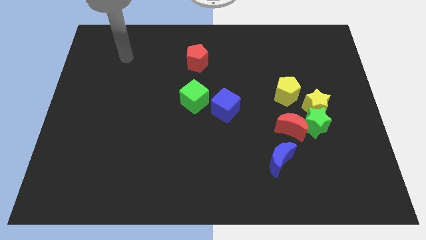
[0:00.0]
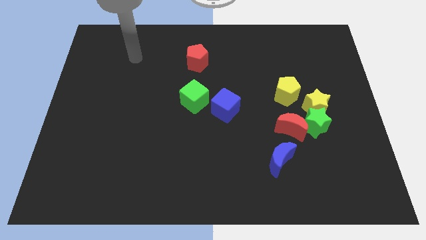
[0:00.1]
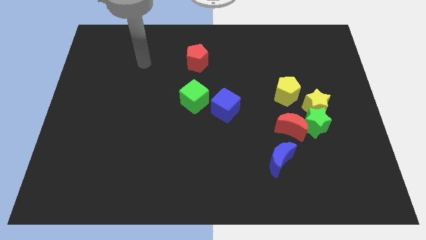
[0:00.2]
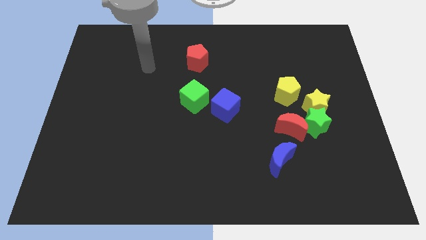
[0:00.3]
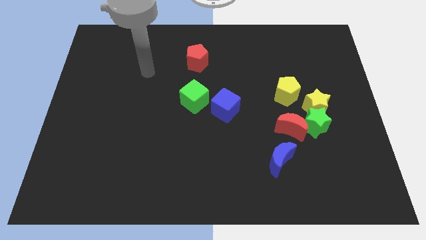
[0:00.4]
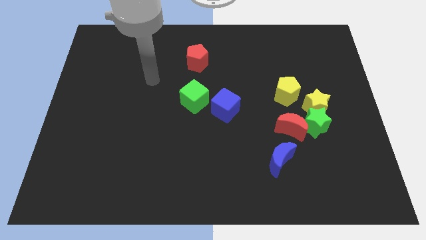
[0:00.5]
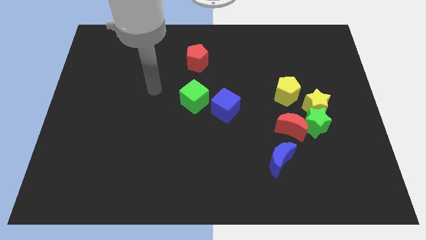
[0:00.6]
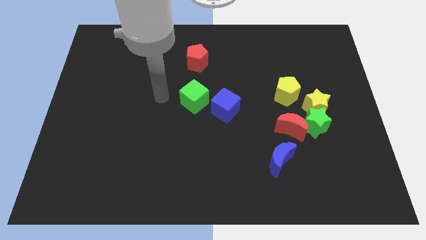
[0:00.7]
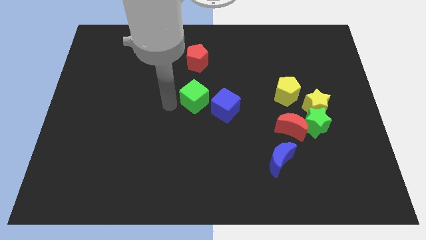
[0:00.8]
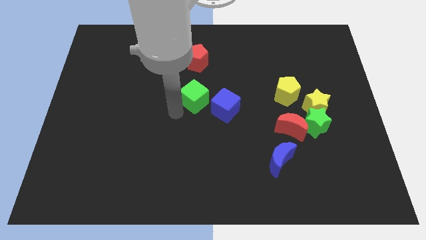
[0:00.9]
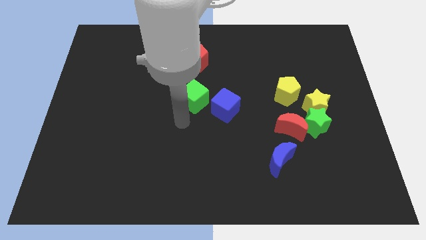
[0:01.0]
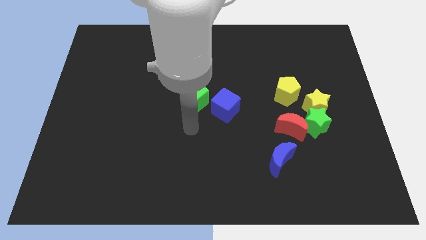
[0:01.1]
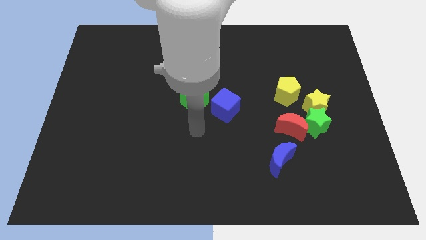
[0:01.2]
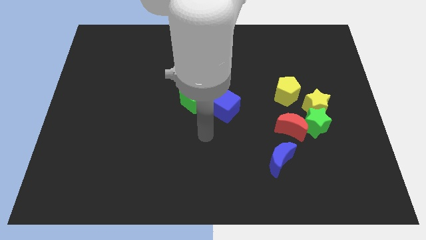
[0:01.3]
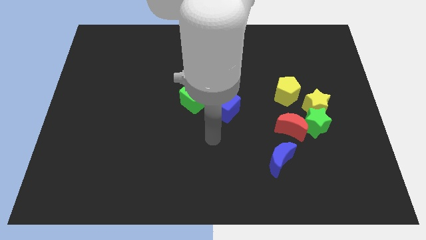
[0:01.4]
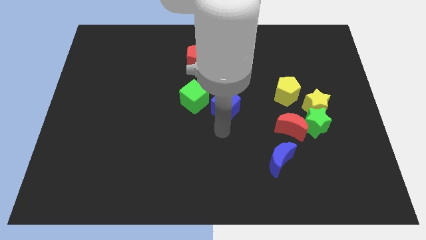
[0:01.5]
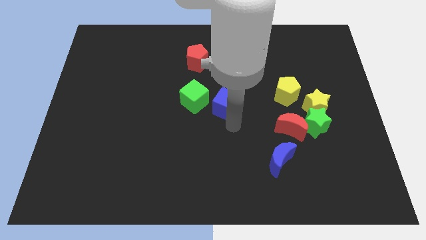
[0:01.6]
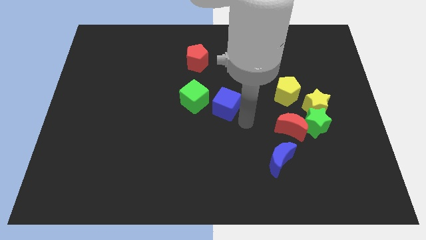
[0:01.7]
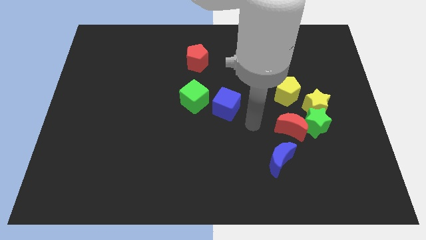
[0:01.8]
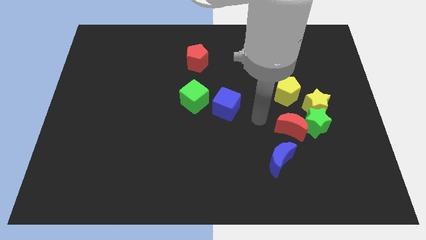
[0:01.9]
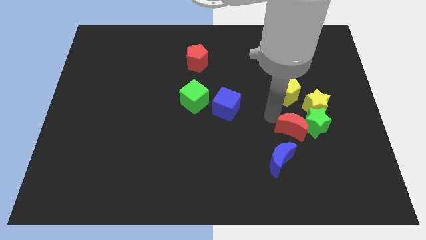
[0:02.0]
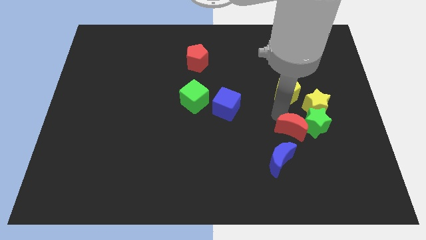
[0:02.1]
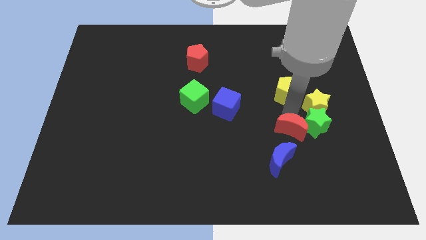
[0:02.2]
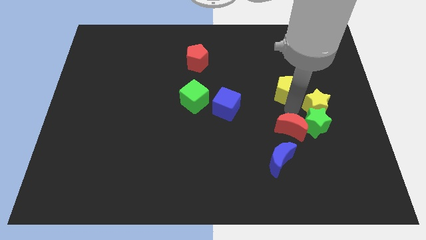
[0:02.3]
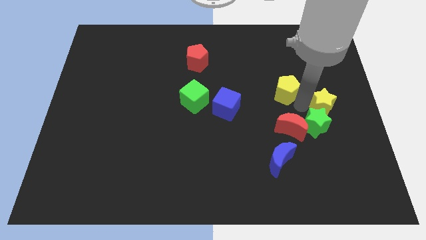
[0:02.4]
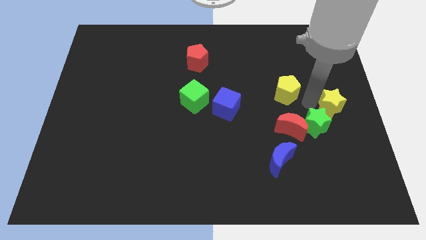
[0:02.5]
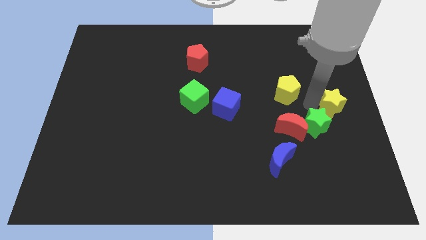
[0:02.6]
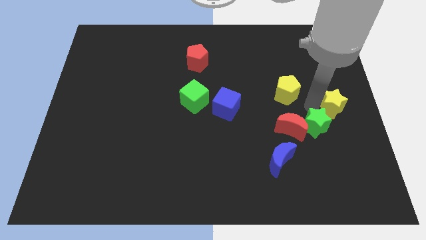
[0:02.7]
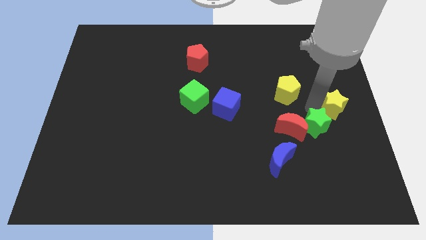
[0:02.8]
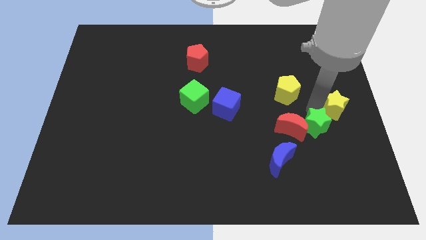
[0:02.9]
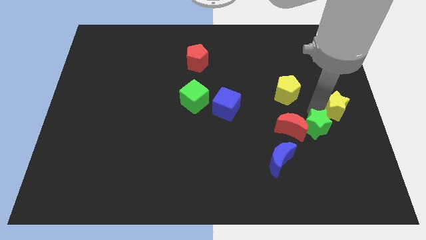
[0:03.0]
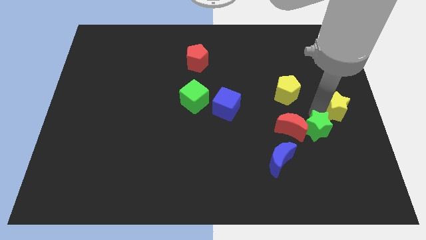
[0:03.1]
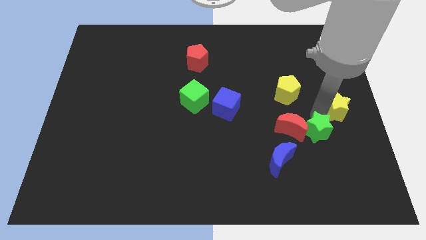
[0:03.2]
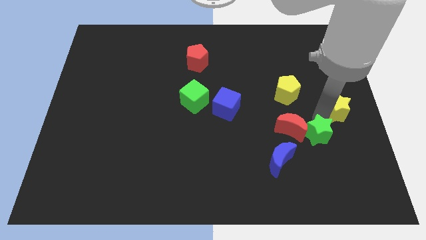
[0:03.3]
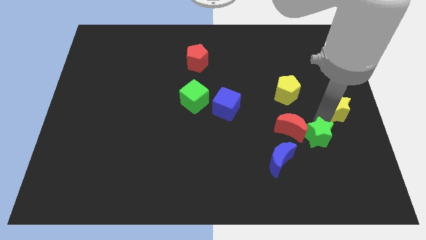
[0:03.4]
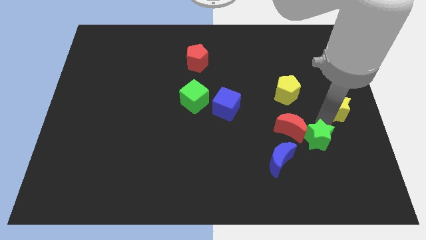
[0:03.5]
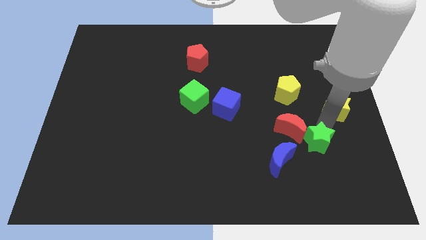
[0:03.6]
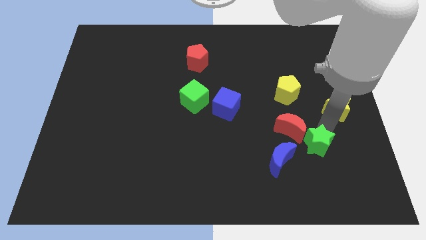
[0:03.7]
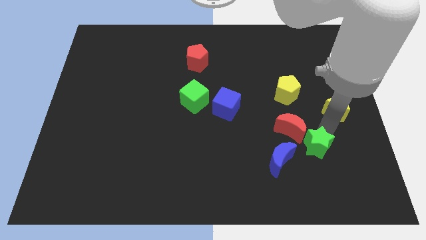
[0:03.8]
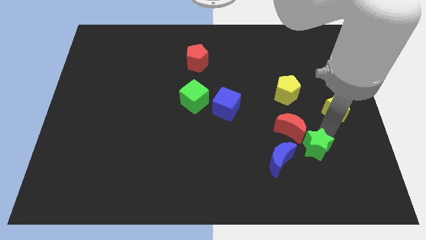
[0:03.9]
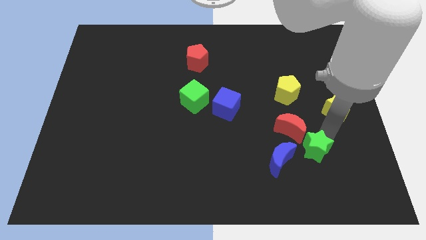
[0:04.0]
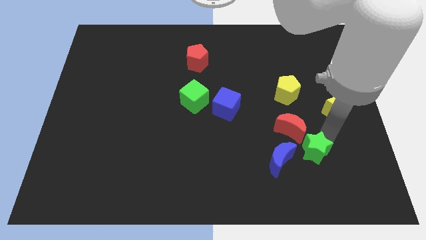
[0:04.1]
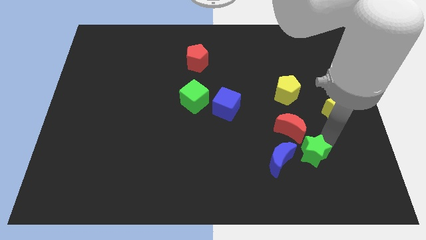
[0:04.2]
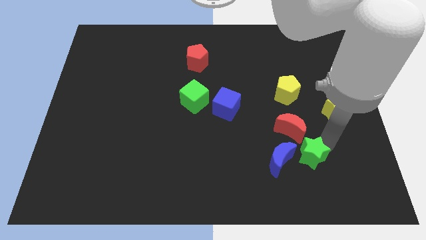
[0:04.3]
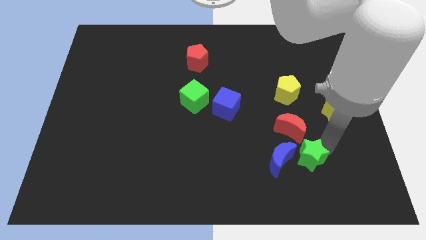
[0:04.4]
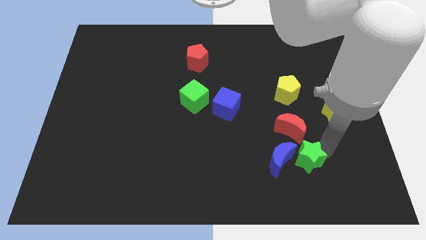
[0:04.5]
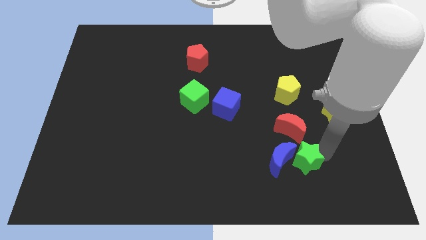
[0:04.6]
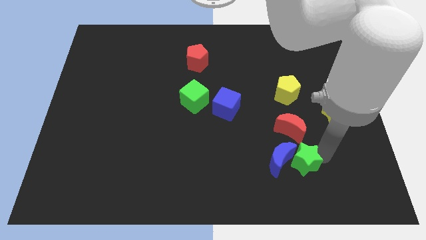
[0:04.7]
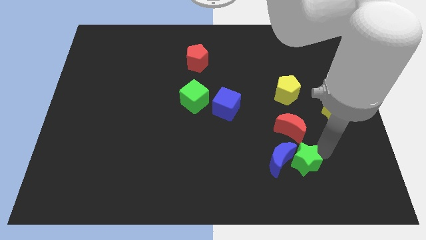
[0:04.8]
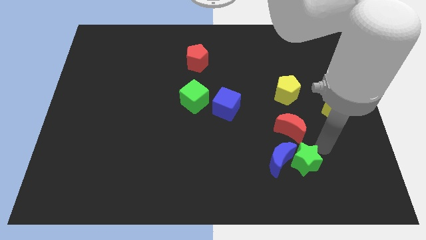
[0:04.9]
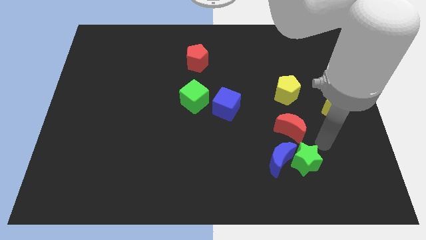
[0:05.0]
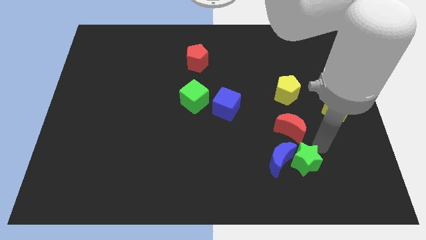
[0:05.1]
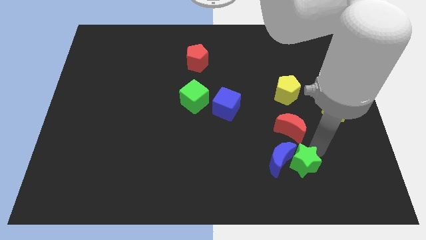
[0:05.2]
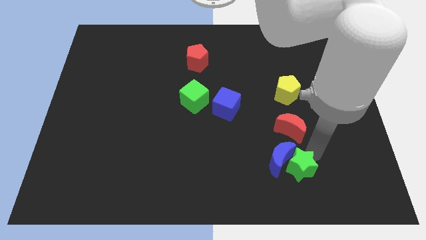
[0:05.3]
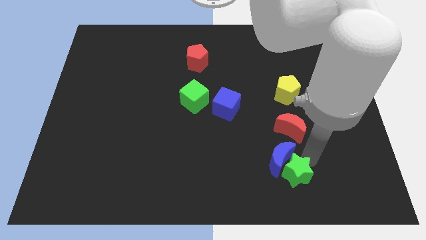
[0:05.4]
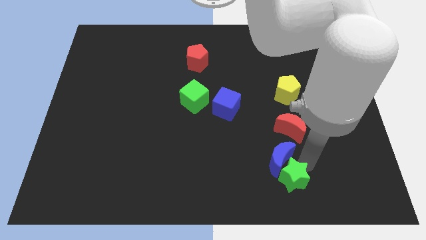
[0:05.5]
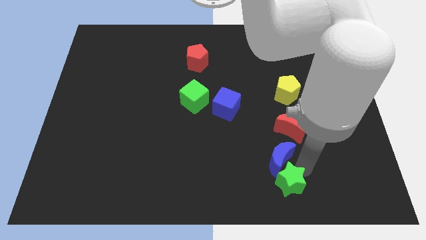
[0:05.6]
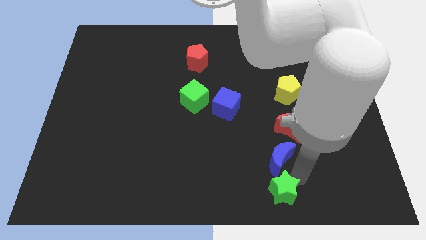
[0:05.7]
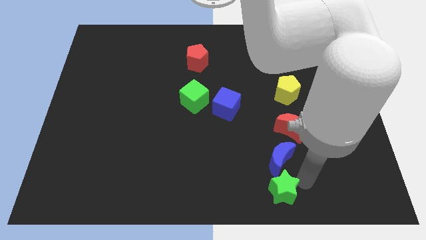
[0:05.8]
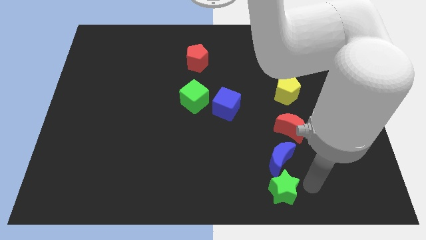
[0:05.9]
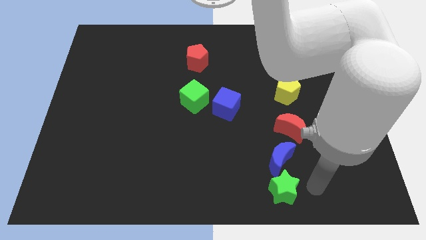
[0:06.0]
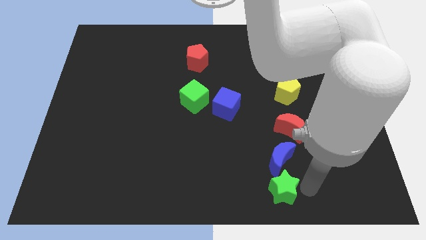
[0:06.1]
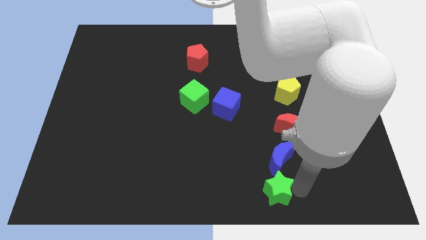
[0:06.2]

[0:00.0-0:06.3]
push the green star to the bottom side

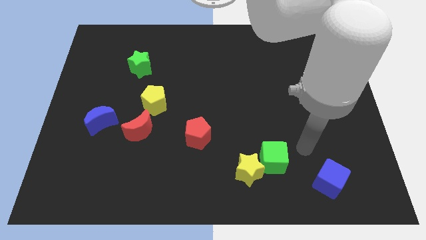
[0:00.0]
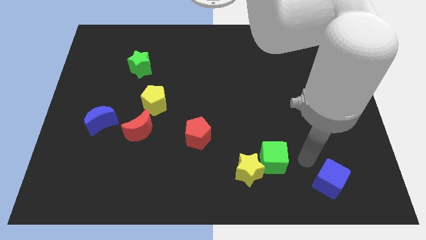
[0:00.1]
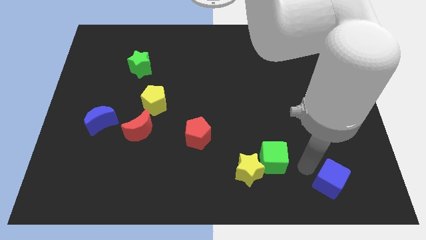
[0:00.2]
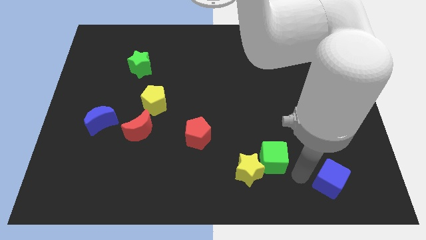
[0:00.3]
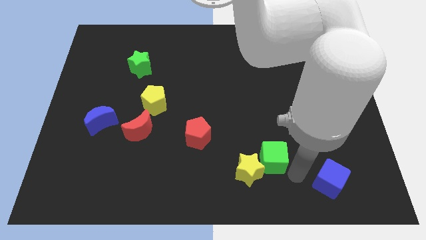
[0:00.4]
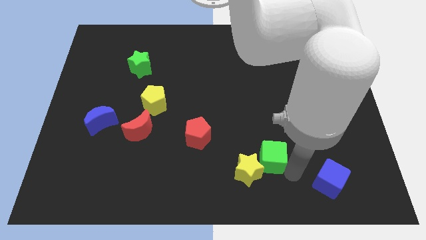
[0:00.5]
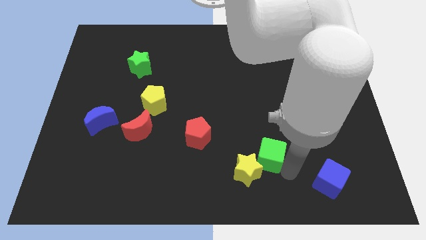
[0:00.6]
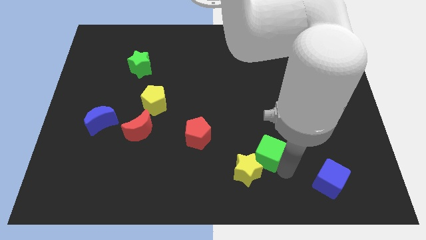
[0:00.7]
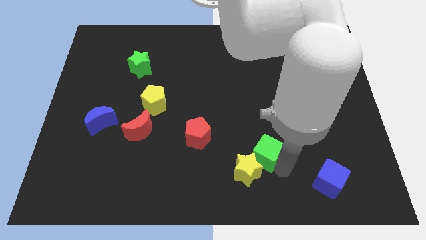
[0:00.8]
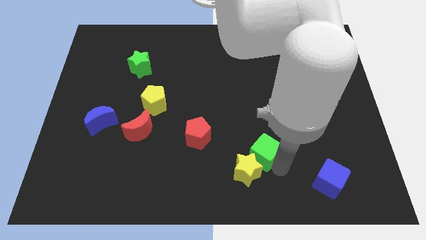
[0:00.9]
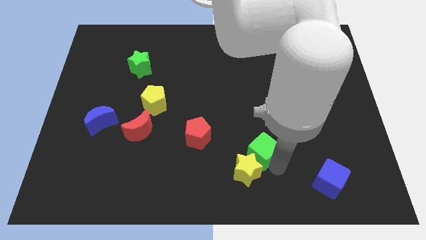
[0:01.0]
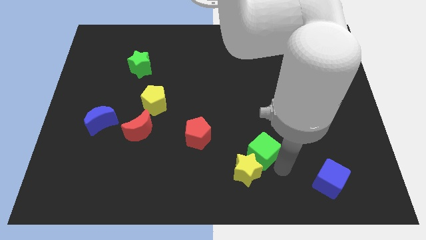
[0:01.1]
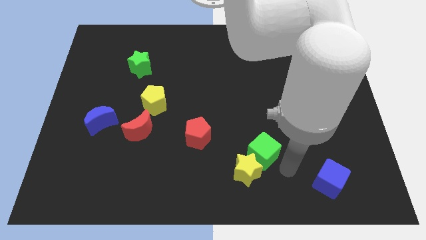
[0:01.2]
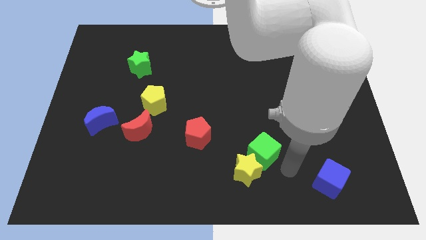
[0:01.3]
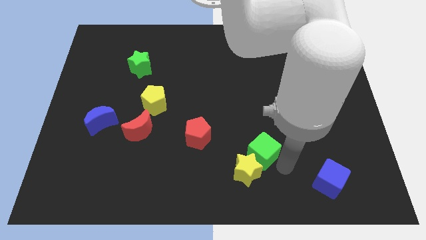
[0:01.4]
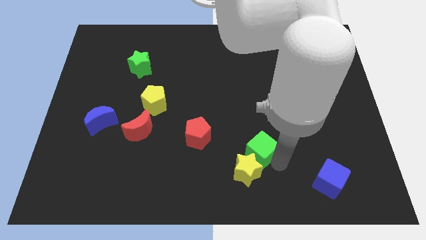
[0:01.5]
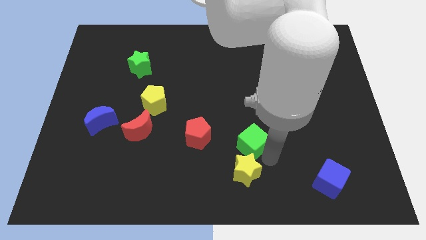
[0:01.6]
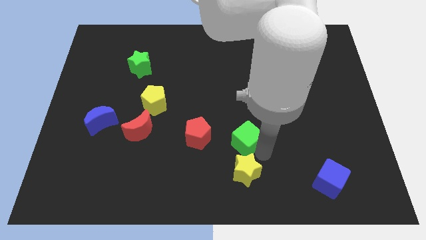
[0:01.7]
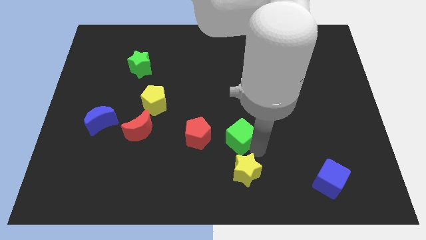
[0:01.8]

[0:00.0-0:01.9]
push the green cube to the center of the board
